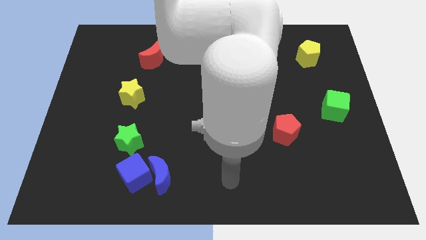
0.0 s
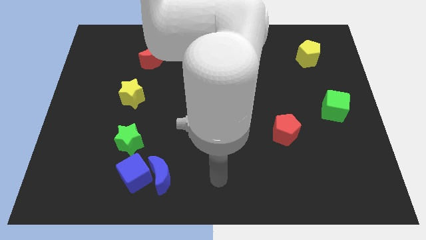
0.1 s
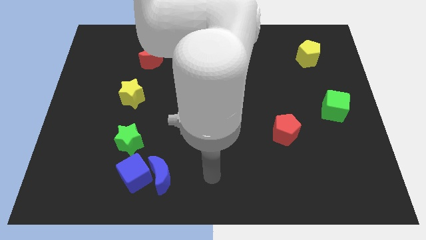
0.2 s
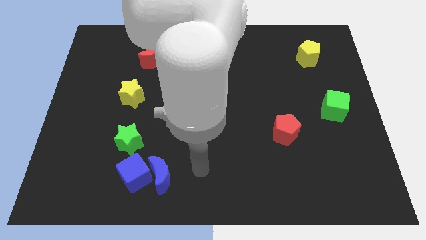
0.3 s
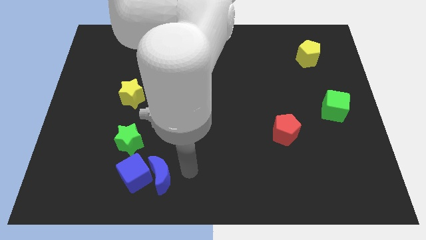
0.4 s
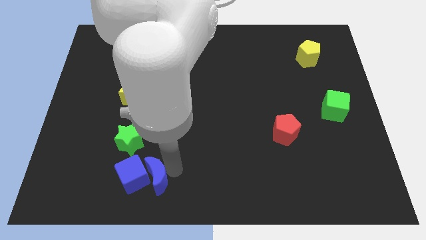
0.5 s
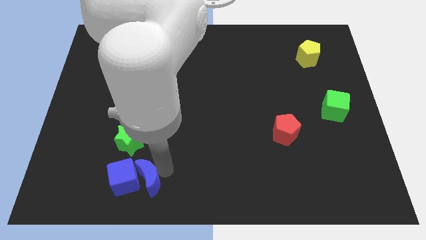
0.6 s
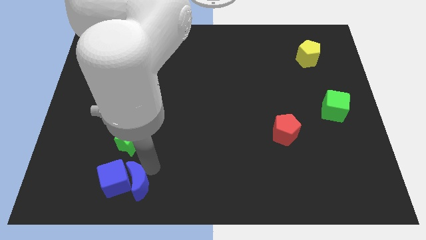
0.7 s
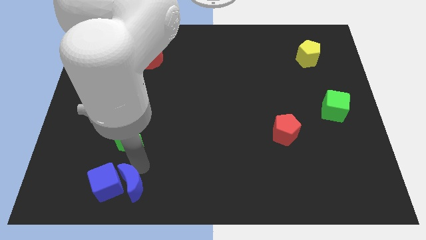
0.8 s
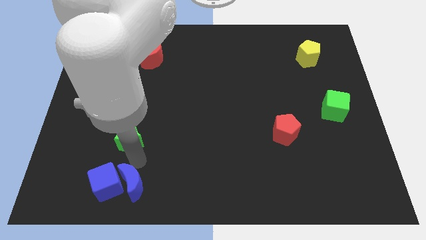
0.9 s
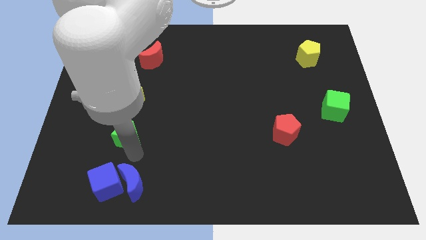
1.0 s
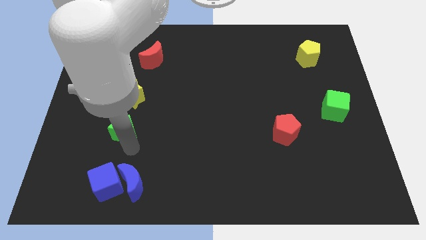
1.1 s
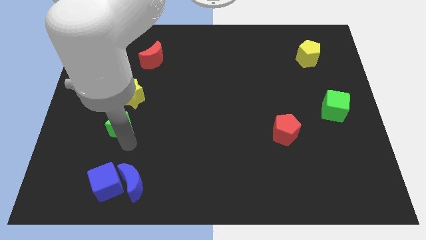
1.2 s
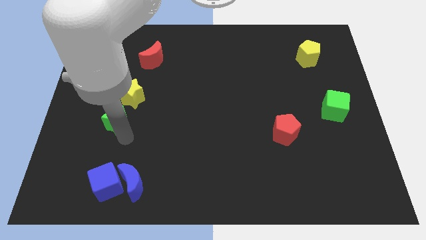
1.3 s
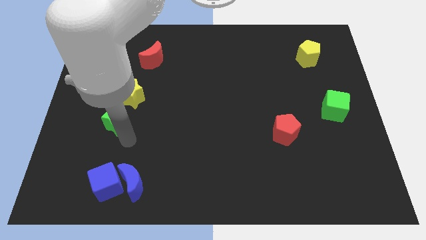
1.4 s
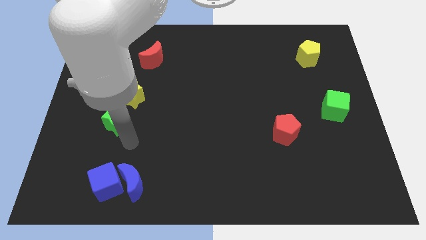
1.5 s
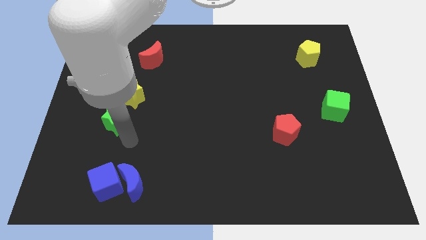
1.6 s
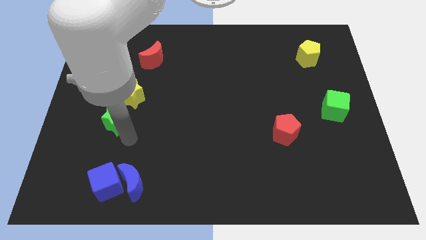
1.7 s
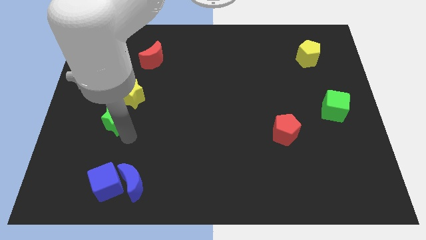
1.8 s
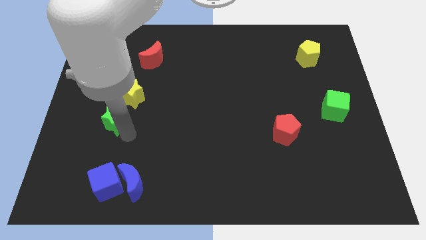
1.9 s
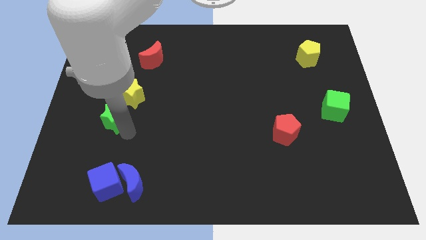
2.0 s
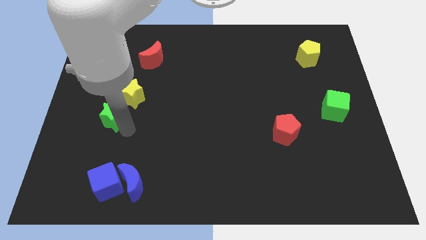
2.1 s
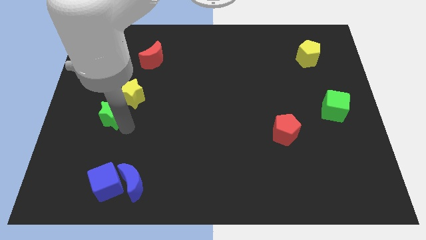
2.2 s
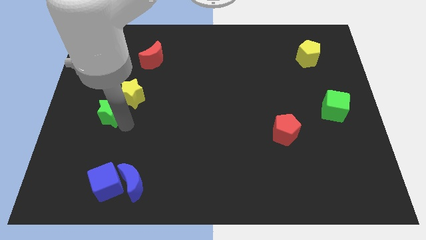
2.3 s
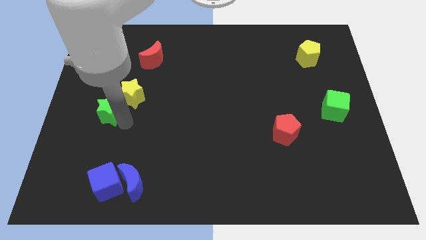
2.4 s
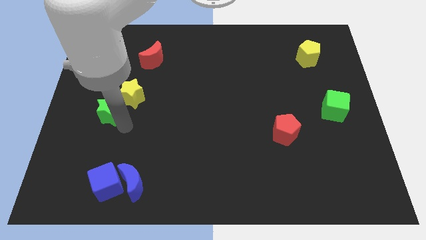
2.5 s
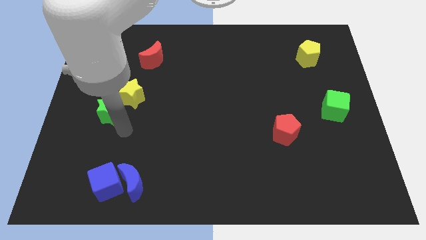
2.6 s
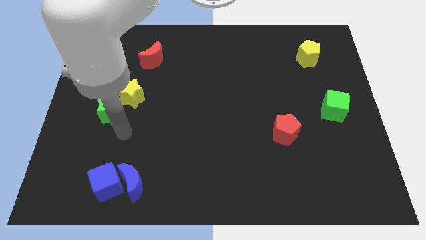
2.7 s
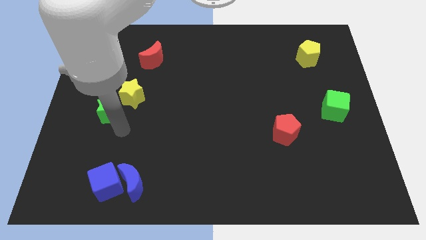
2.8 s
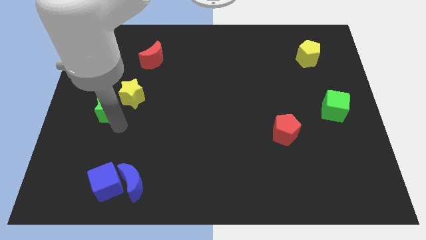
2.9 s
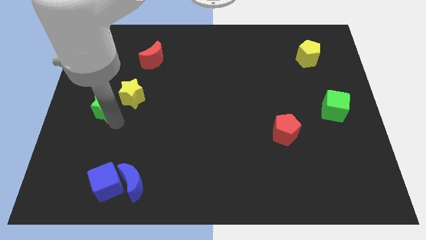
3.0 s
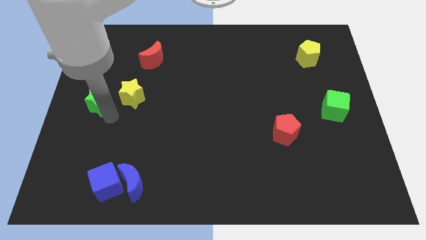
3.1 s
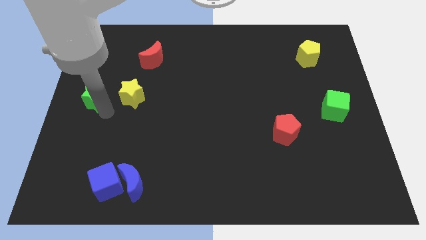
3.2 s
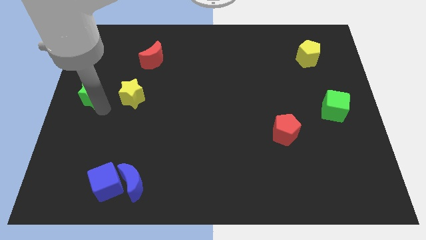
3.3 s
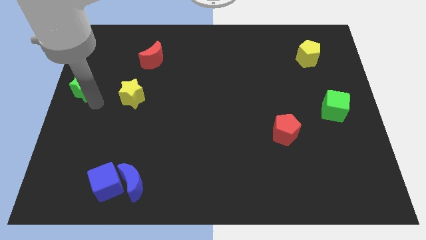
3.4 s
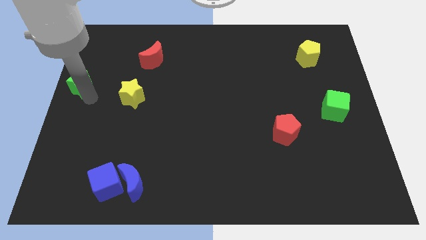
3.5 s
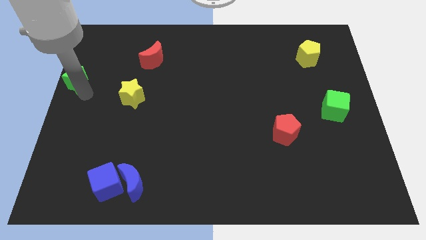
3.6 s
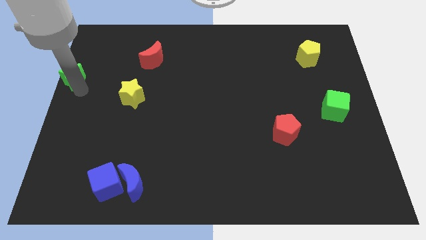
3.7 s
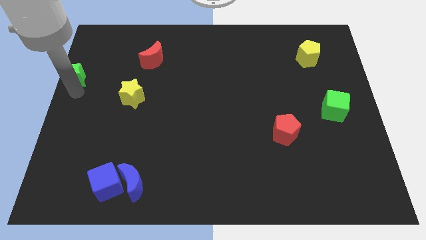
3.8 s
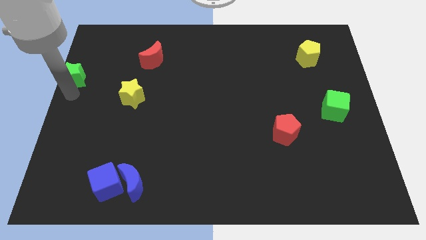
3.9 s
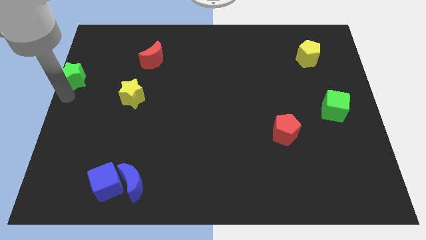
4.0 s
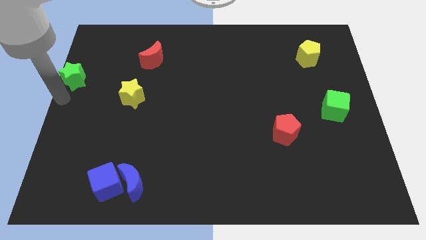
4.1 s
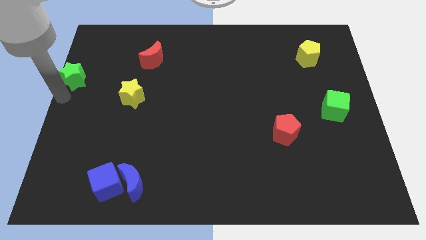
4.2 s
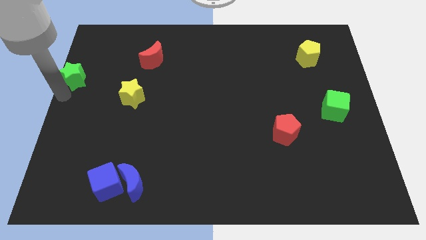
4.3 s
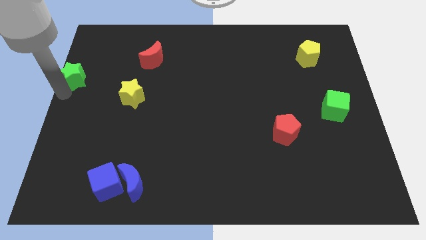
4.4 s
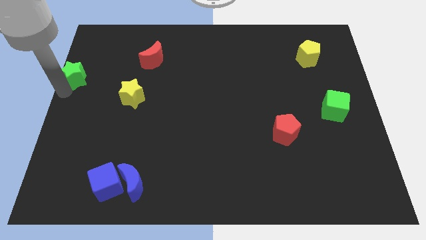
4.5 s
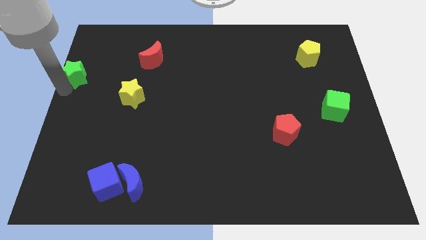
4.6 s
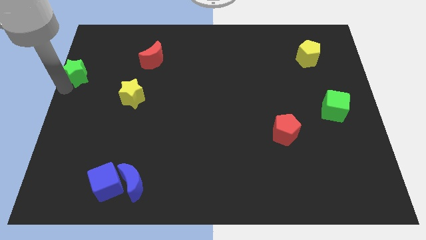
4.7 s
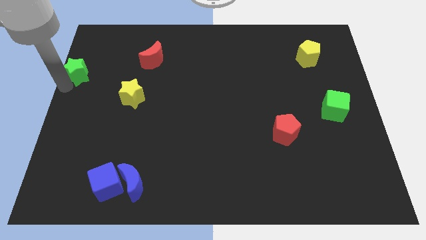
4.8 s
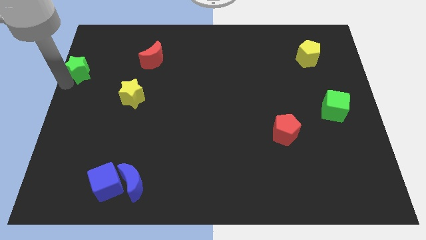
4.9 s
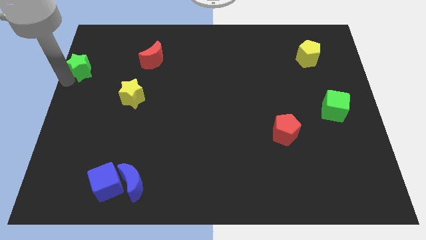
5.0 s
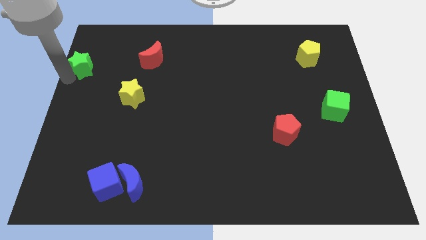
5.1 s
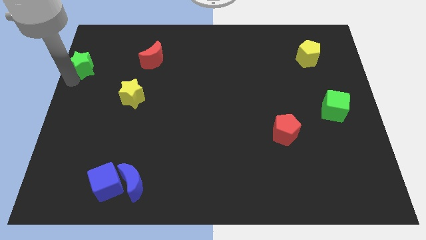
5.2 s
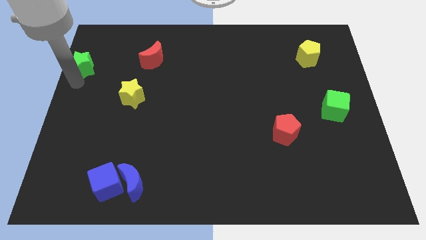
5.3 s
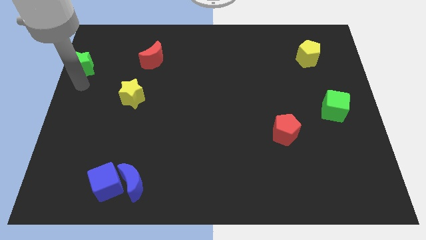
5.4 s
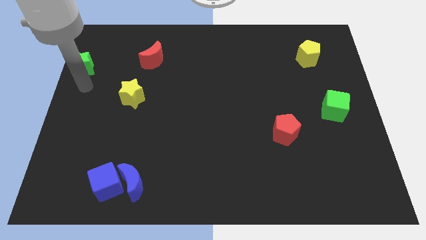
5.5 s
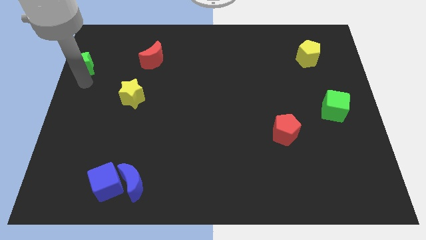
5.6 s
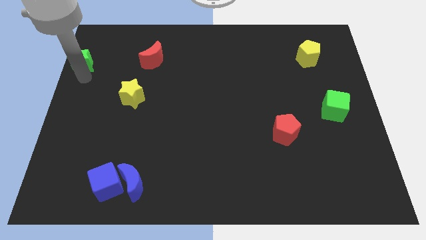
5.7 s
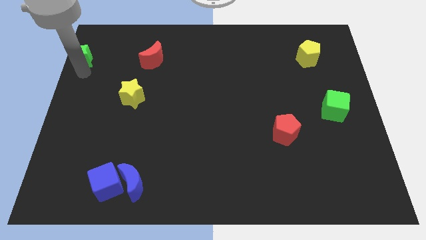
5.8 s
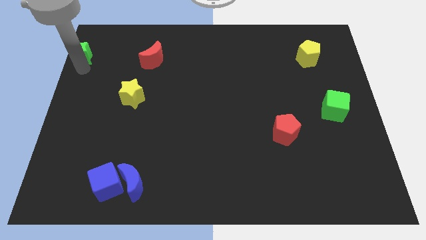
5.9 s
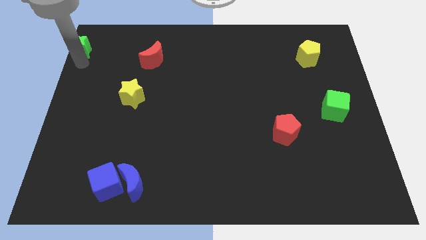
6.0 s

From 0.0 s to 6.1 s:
put the green star to the upper left corner

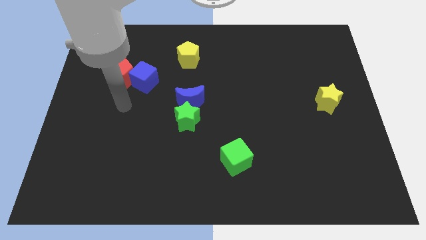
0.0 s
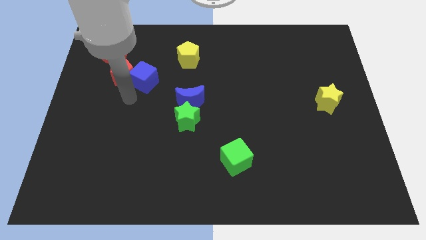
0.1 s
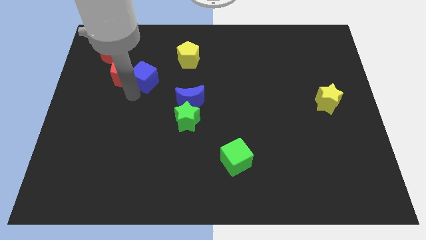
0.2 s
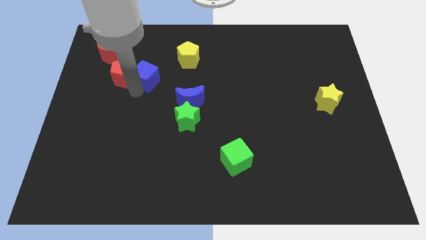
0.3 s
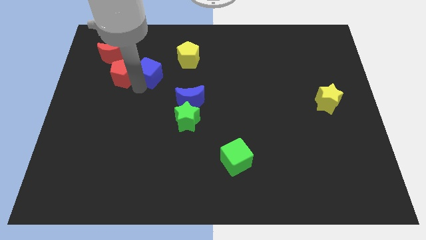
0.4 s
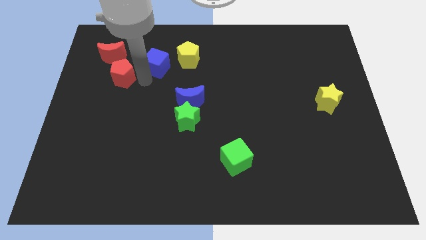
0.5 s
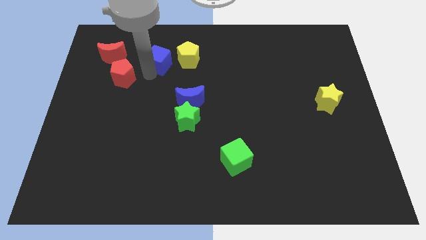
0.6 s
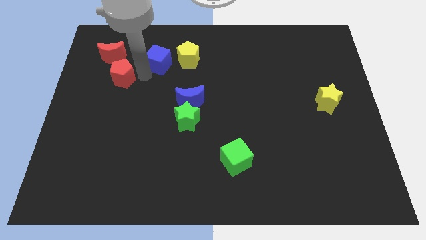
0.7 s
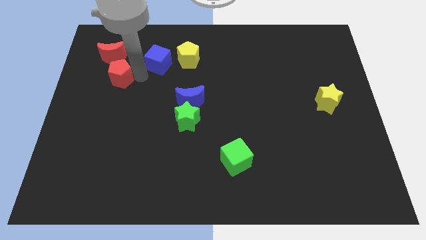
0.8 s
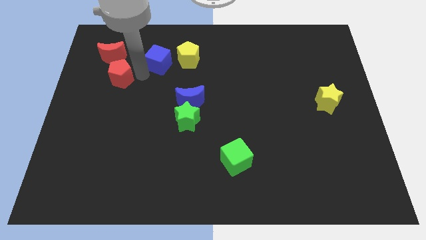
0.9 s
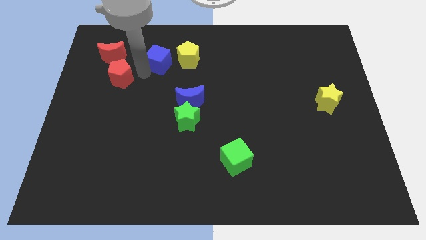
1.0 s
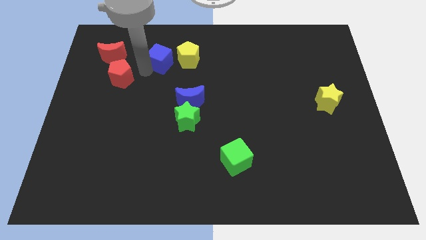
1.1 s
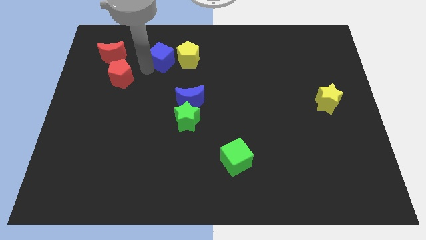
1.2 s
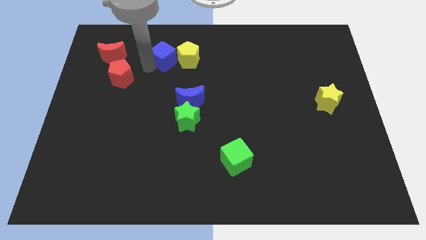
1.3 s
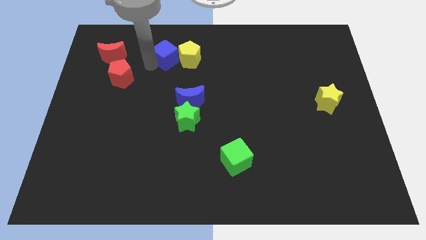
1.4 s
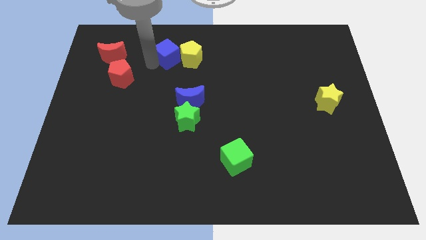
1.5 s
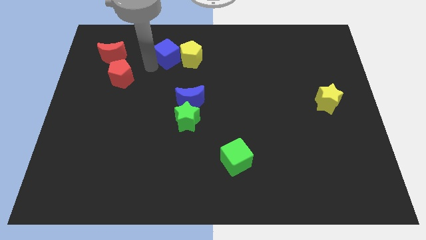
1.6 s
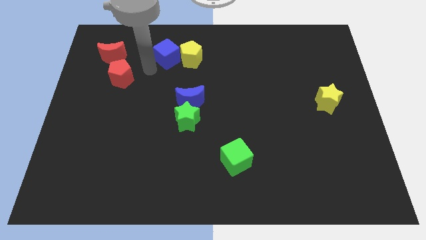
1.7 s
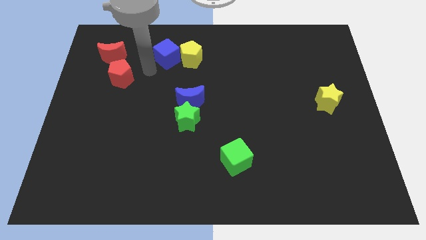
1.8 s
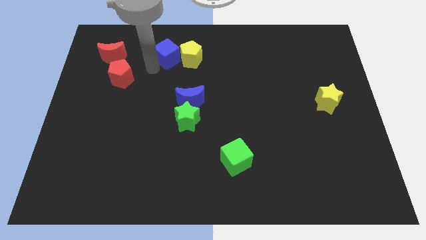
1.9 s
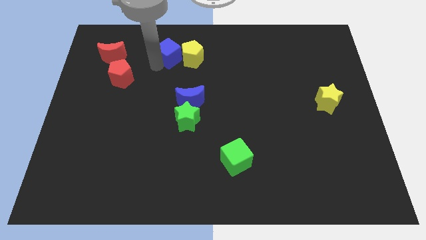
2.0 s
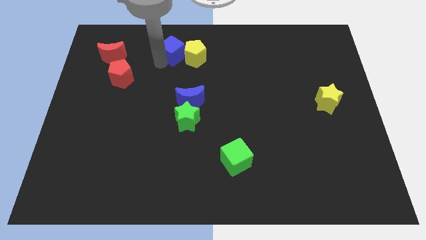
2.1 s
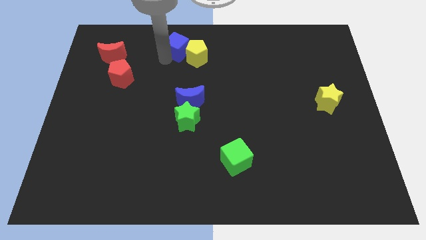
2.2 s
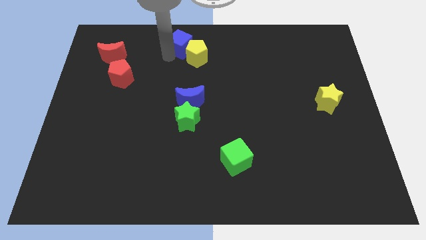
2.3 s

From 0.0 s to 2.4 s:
slide the blue cube to the towards your base
